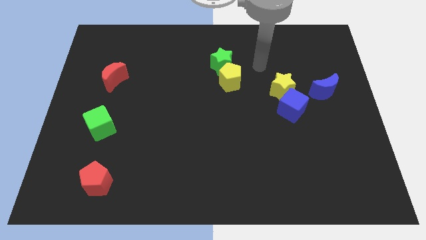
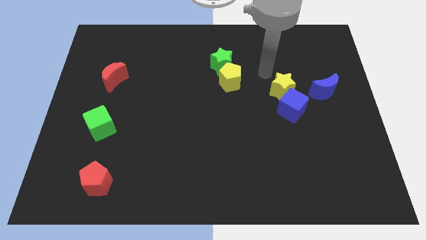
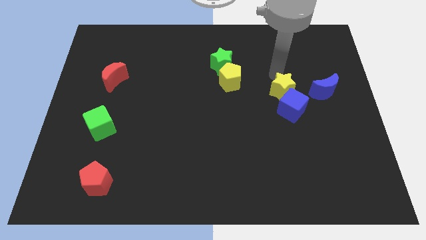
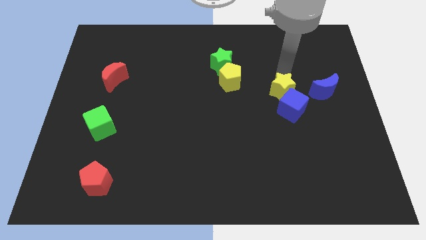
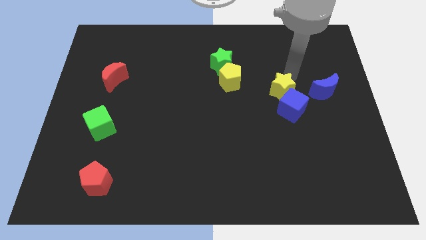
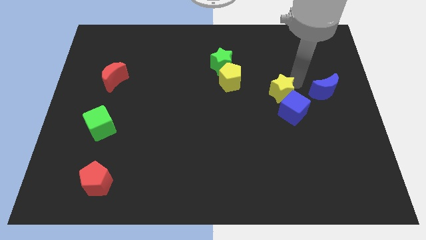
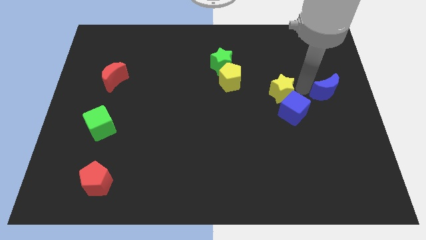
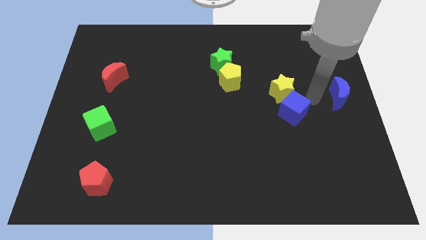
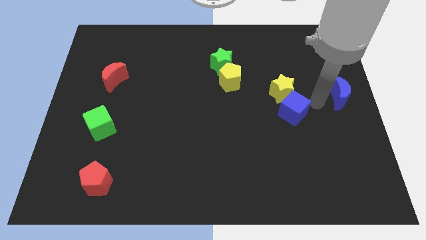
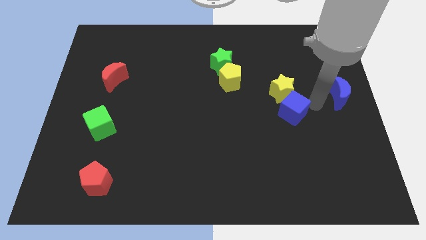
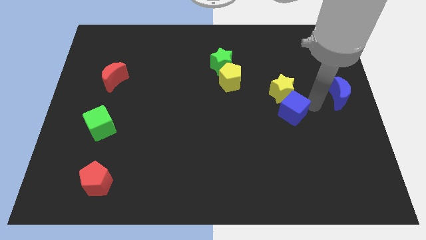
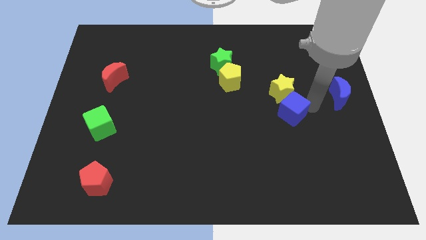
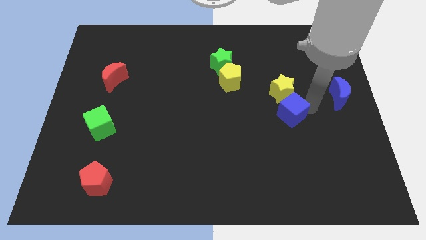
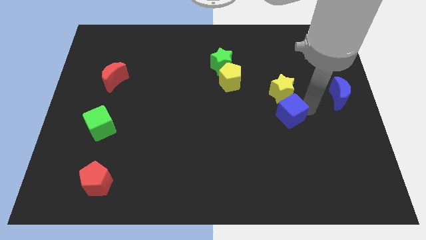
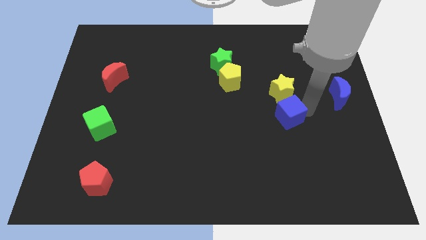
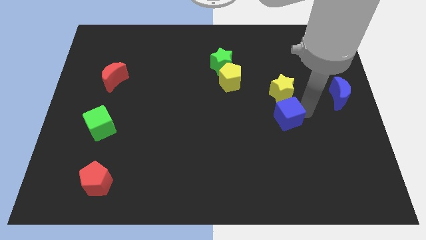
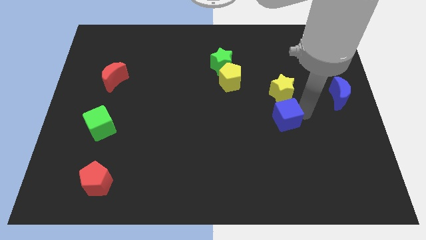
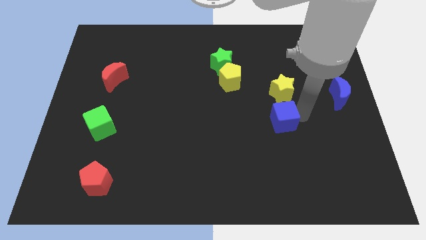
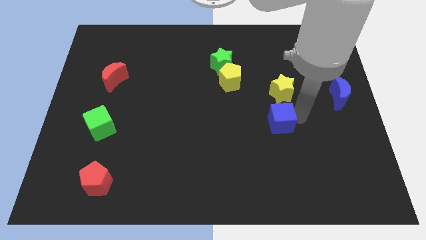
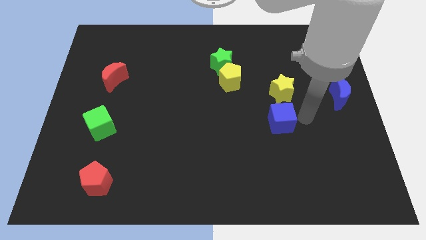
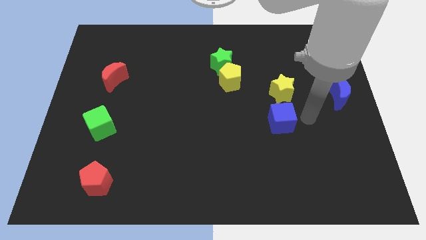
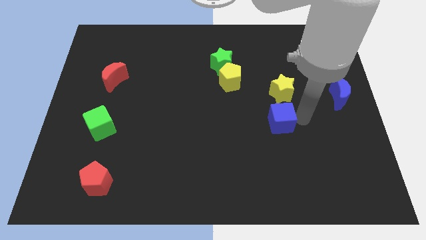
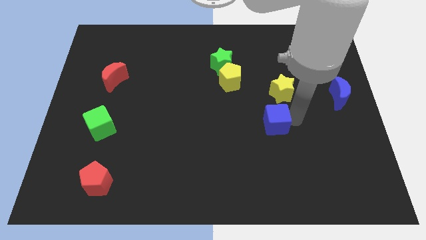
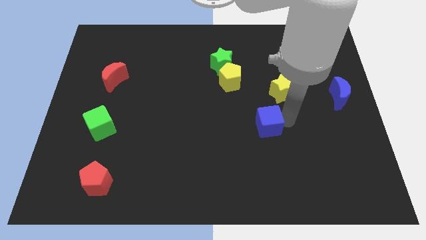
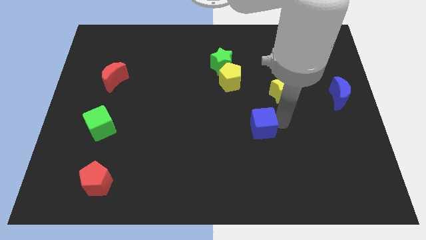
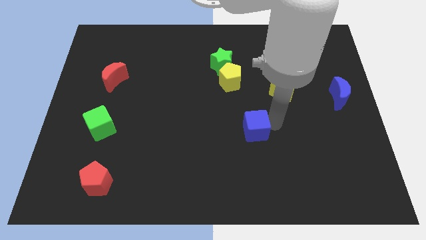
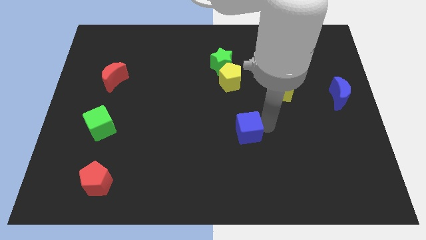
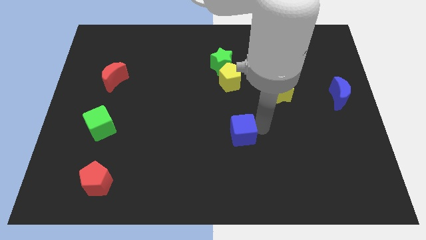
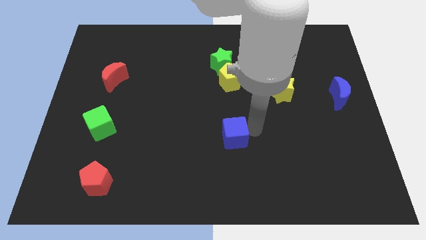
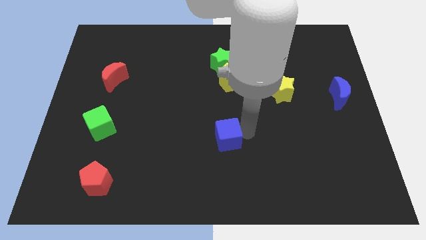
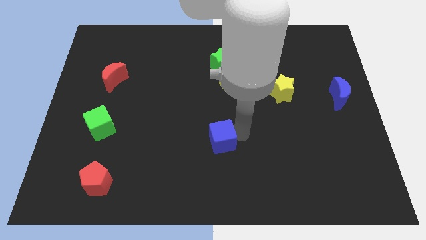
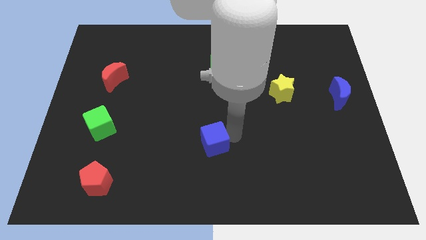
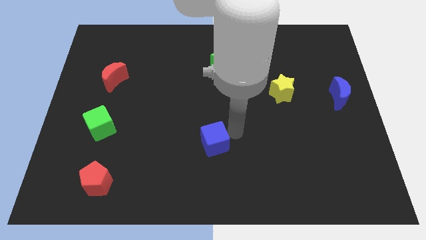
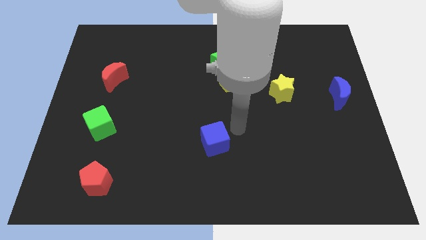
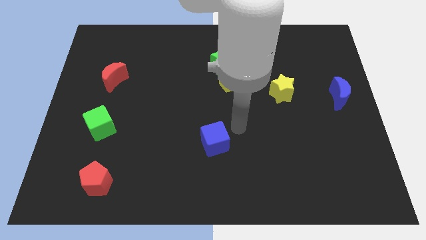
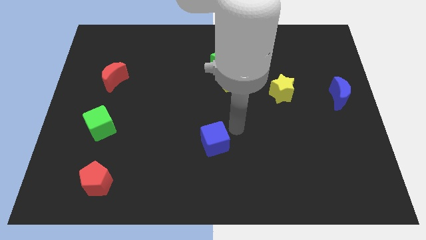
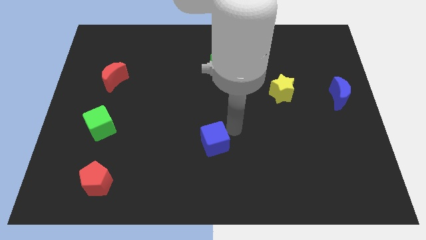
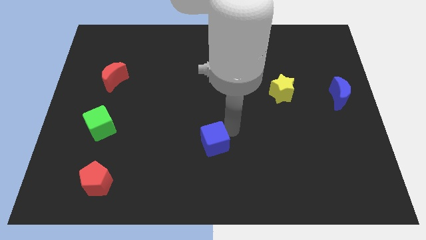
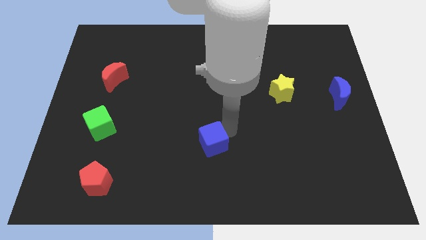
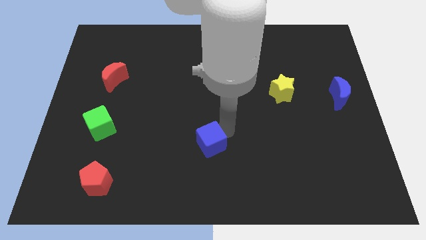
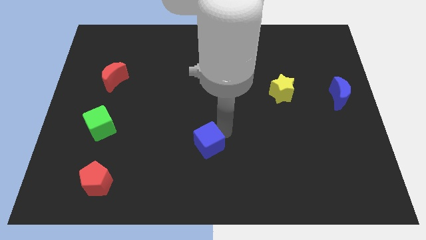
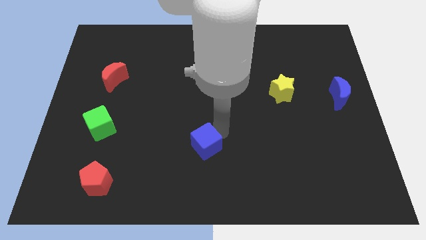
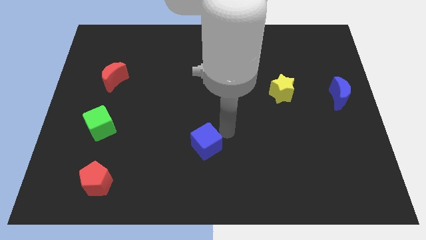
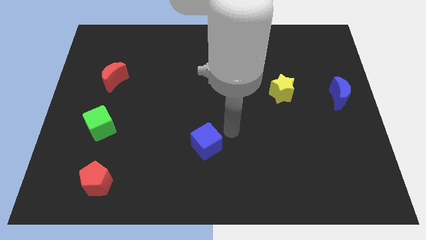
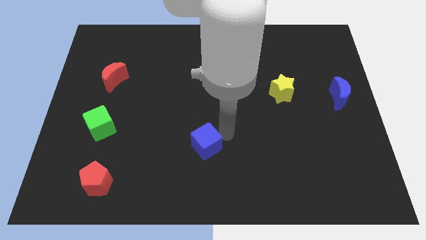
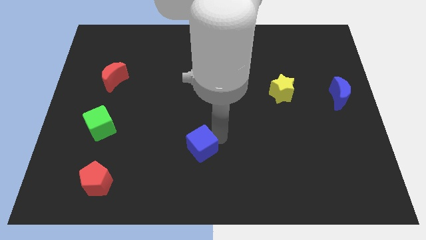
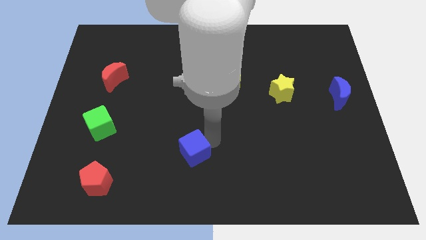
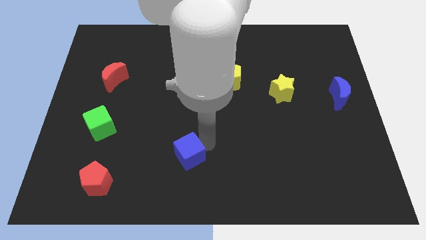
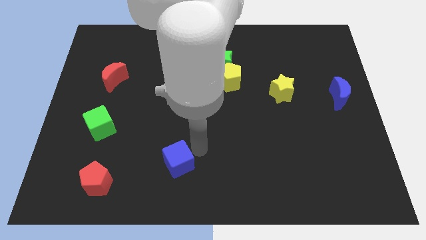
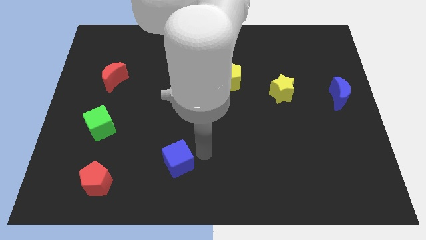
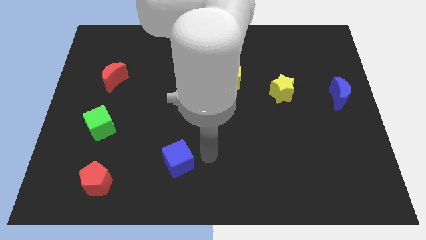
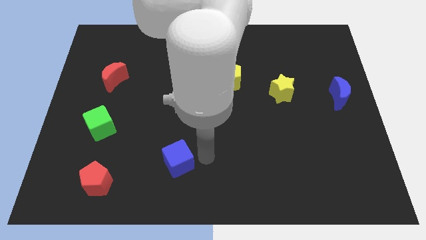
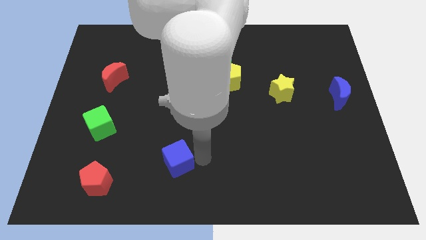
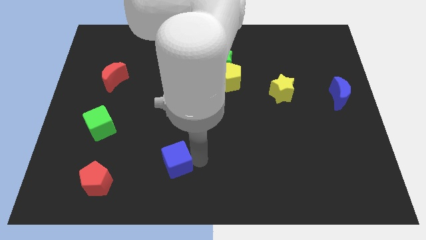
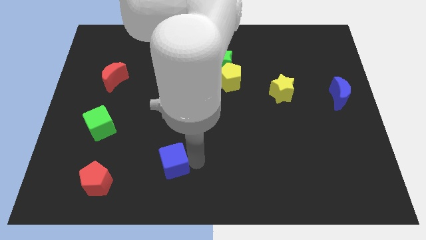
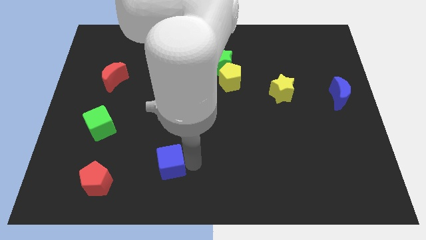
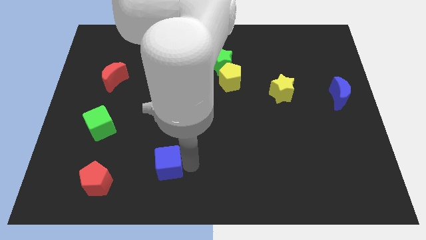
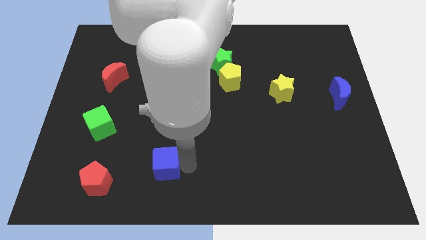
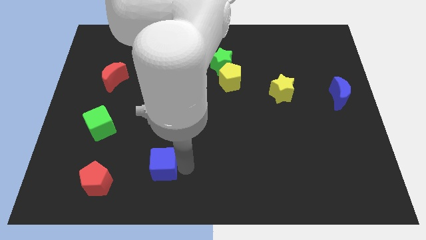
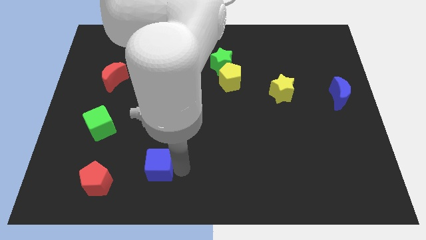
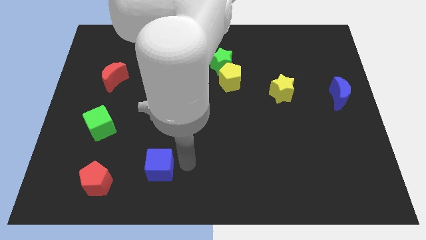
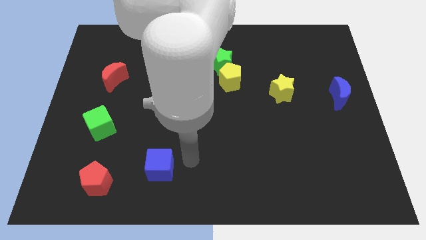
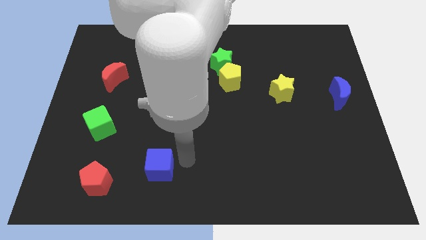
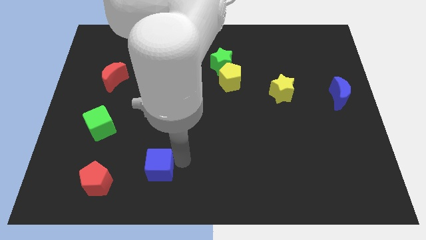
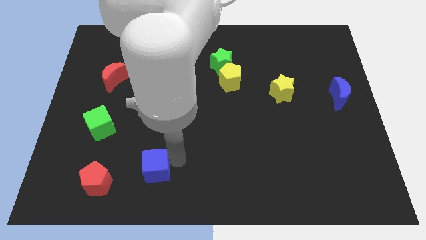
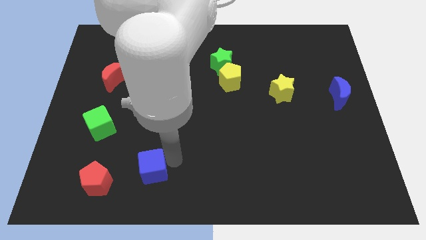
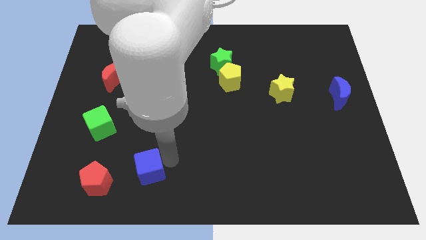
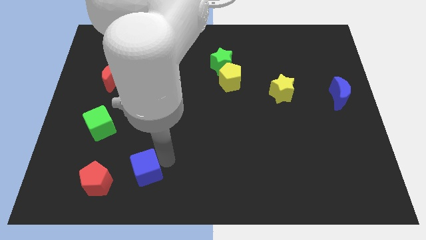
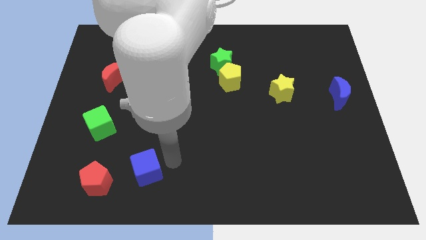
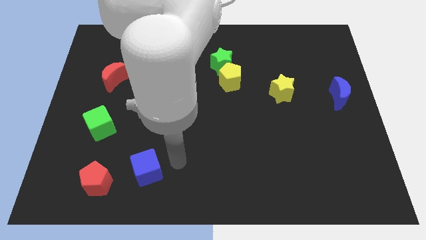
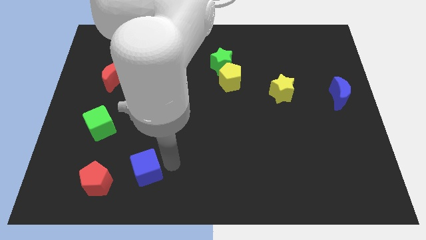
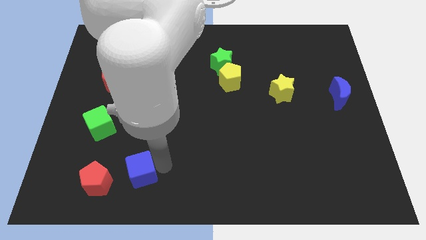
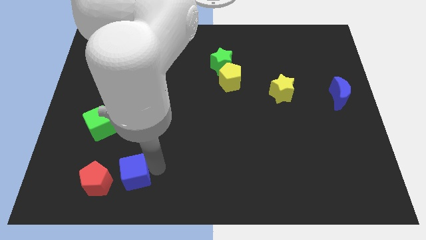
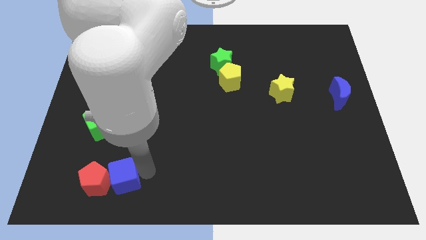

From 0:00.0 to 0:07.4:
put the blue cube towards the red pentagon
